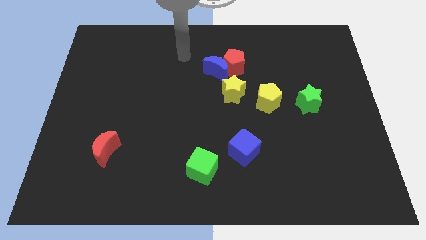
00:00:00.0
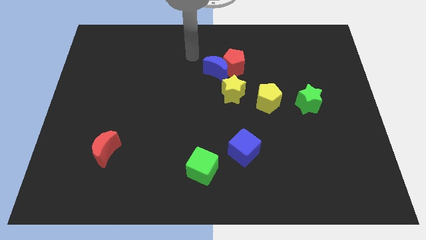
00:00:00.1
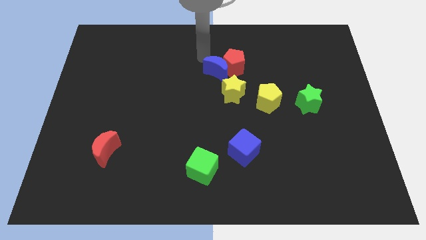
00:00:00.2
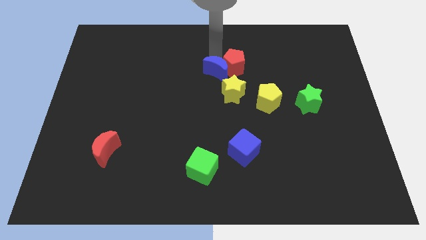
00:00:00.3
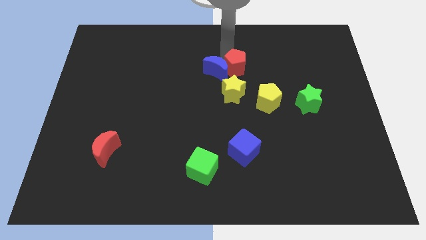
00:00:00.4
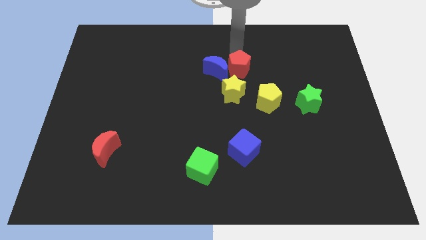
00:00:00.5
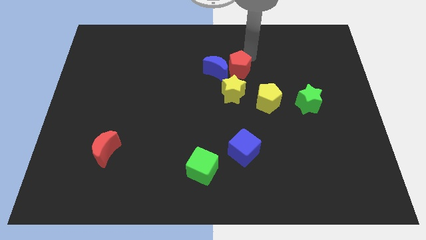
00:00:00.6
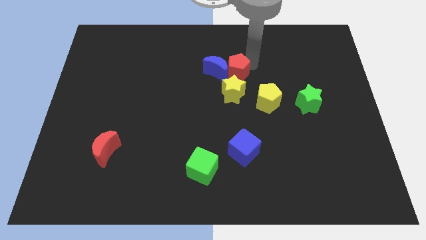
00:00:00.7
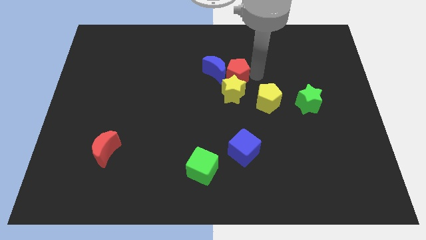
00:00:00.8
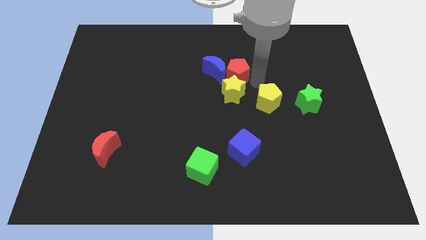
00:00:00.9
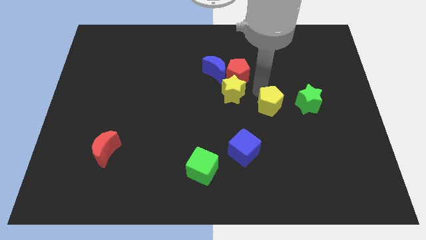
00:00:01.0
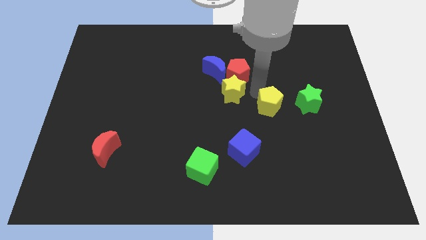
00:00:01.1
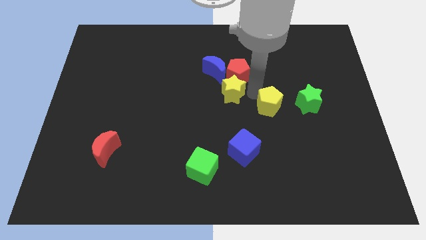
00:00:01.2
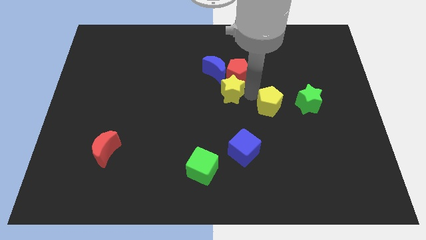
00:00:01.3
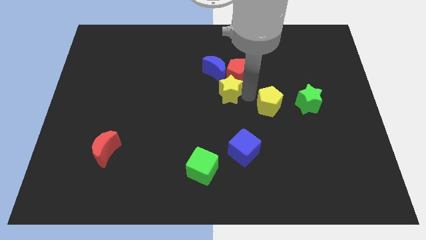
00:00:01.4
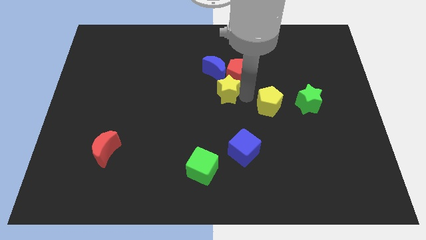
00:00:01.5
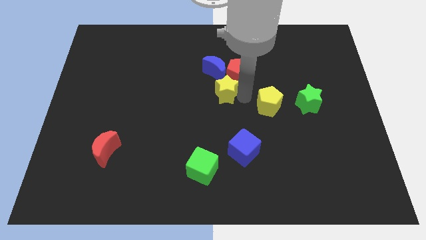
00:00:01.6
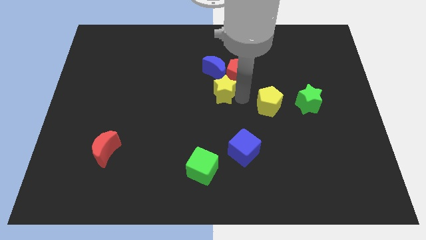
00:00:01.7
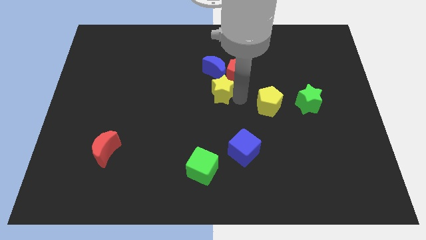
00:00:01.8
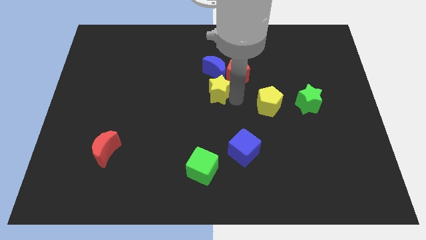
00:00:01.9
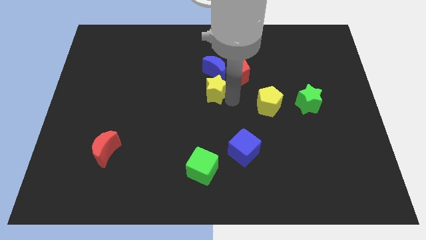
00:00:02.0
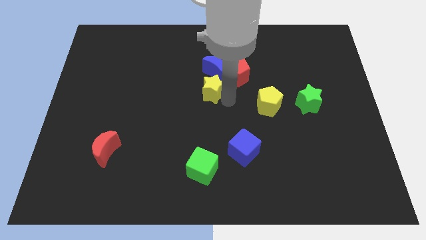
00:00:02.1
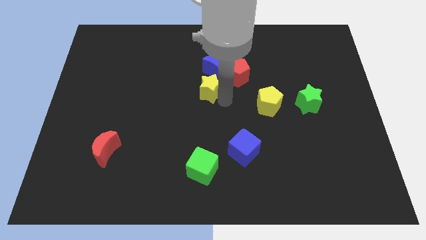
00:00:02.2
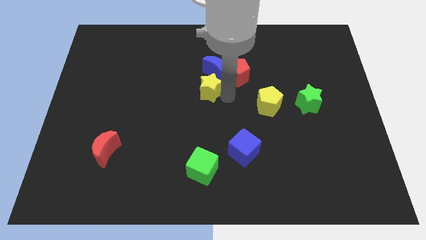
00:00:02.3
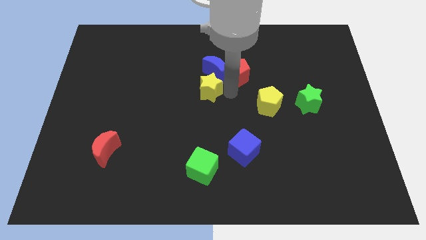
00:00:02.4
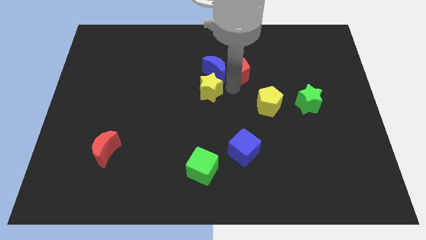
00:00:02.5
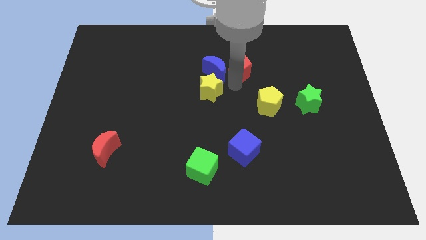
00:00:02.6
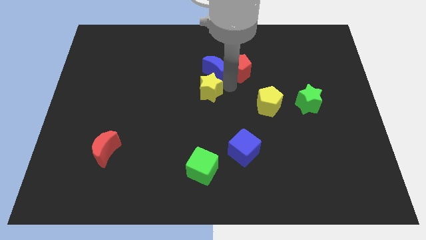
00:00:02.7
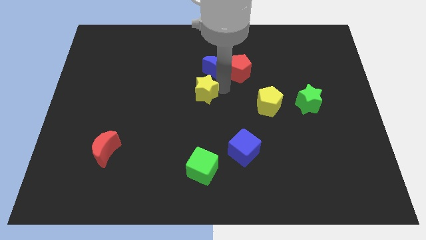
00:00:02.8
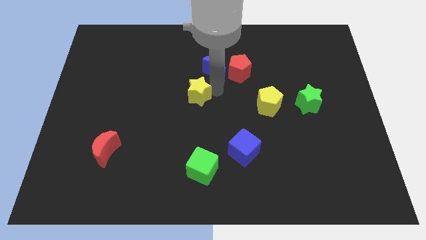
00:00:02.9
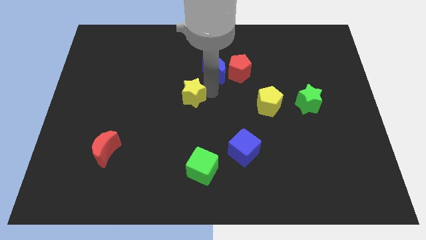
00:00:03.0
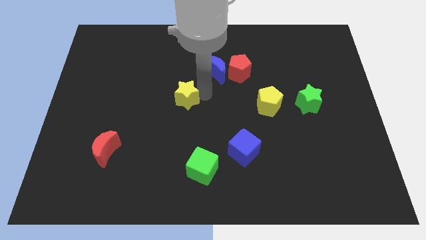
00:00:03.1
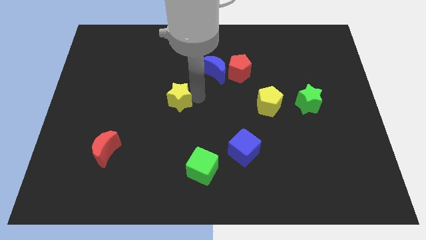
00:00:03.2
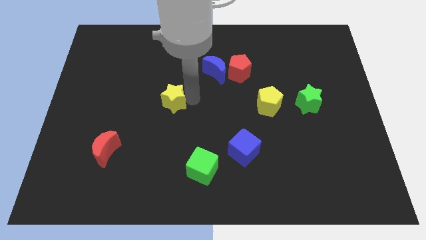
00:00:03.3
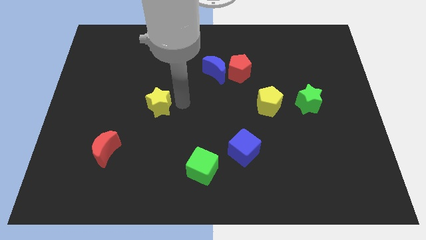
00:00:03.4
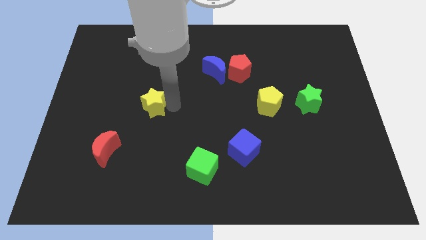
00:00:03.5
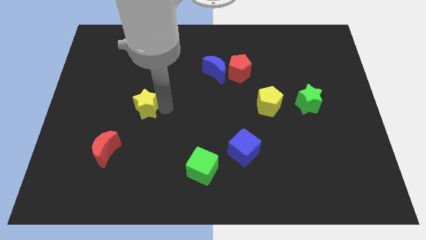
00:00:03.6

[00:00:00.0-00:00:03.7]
move the yellow star to the left

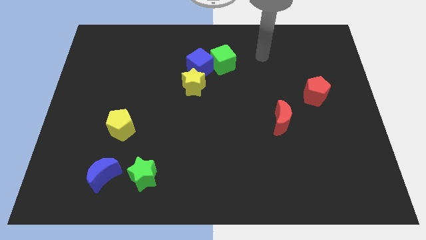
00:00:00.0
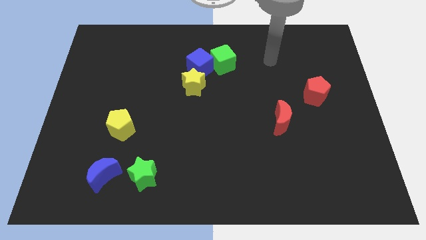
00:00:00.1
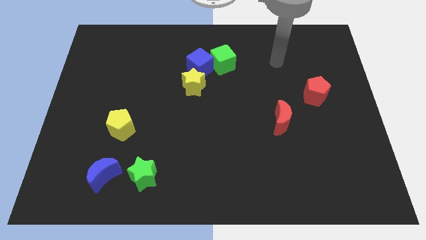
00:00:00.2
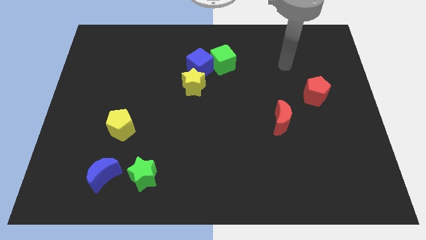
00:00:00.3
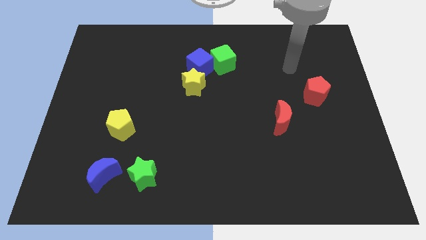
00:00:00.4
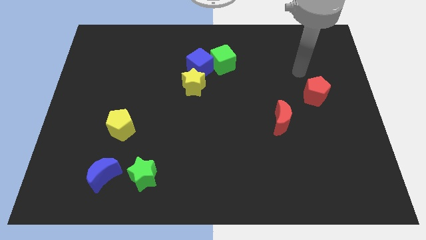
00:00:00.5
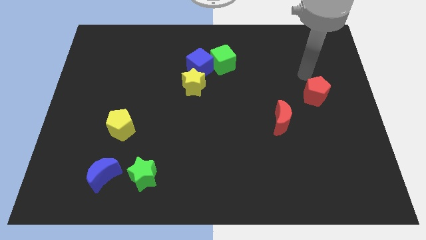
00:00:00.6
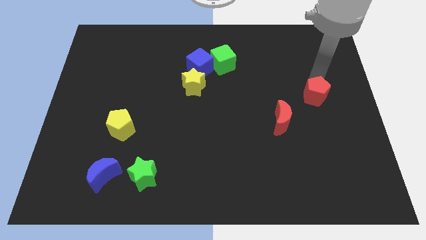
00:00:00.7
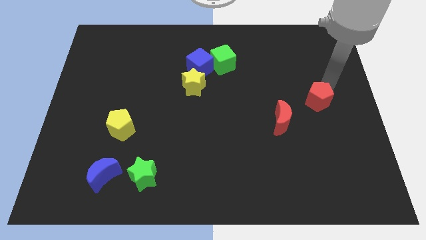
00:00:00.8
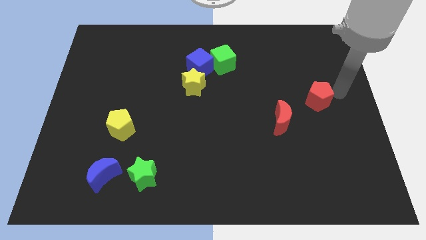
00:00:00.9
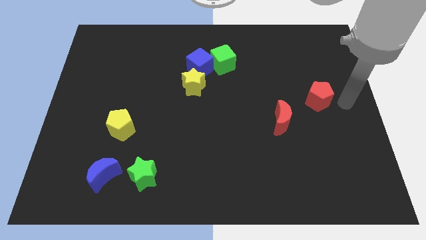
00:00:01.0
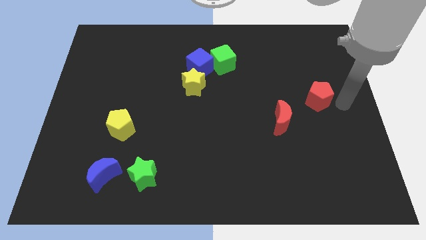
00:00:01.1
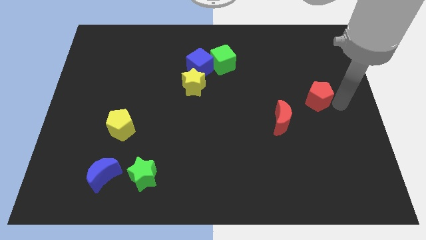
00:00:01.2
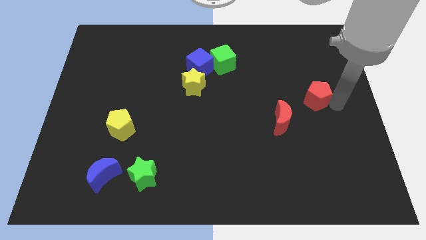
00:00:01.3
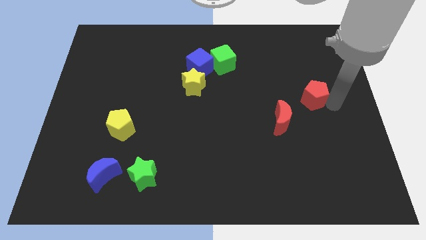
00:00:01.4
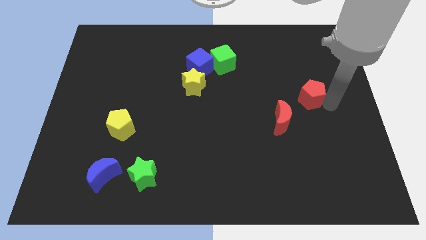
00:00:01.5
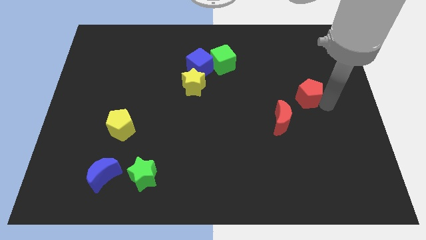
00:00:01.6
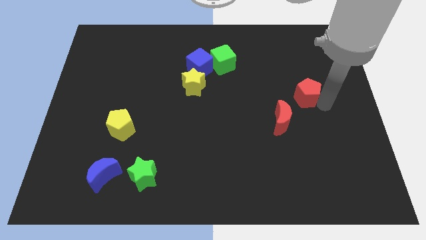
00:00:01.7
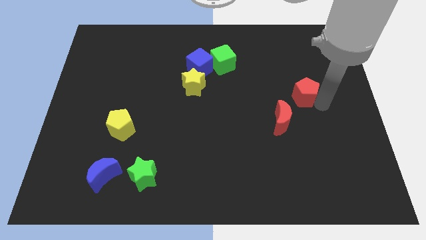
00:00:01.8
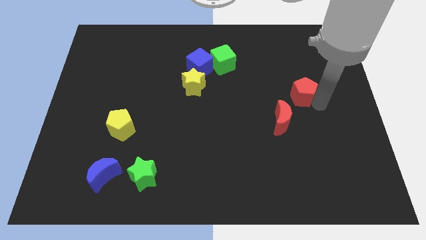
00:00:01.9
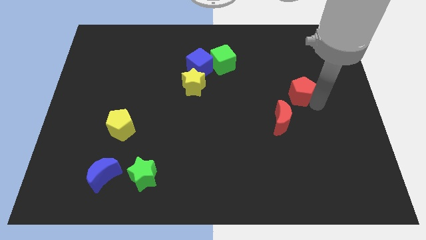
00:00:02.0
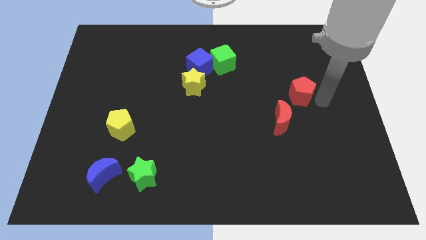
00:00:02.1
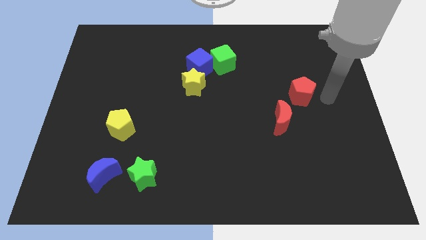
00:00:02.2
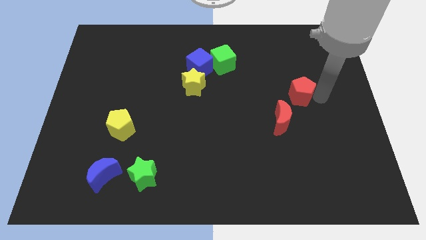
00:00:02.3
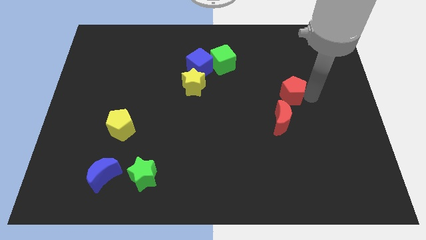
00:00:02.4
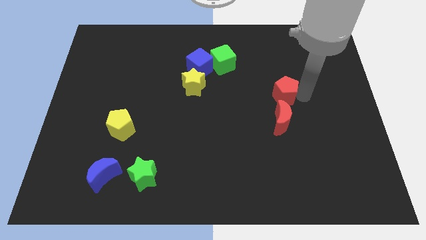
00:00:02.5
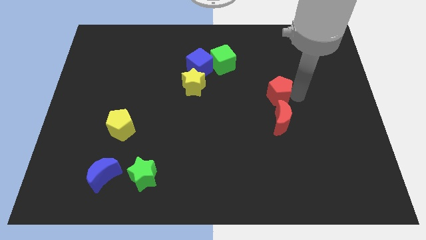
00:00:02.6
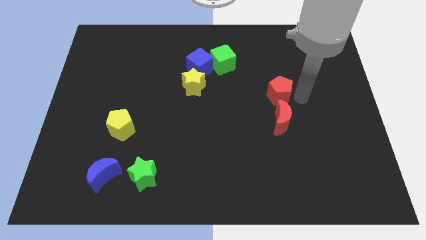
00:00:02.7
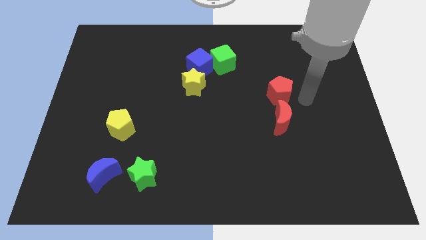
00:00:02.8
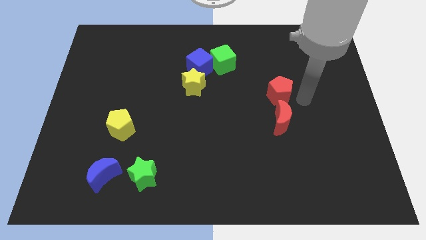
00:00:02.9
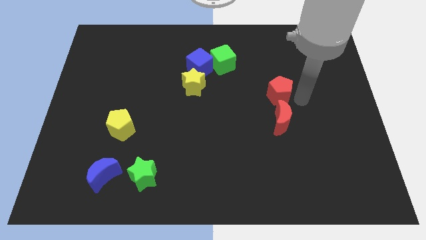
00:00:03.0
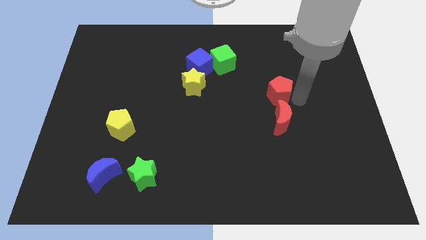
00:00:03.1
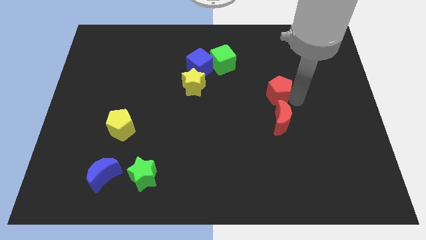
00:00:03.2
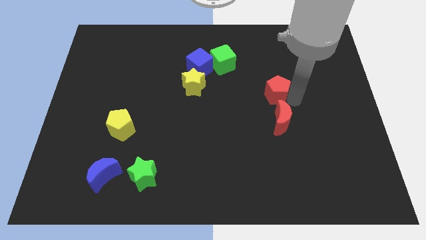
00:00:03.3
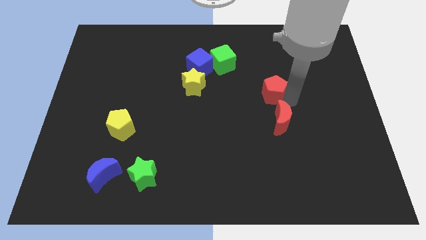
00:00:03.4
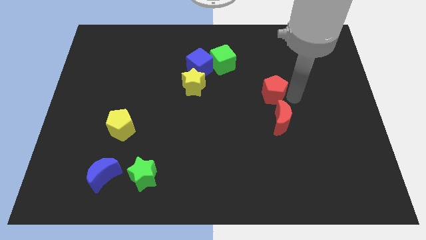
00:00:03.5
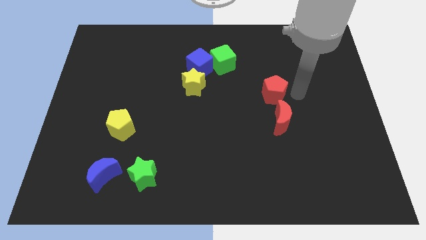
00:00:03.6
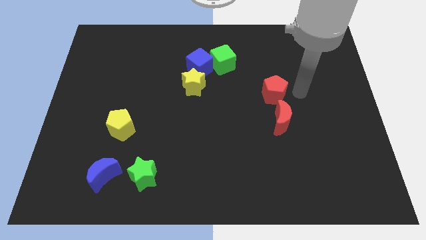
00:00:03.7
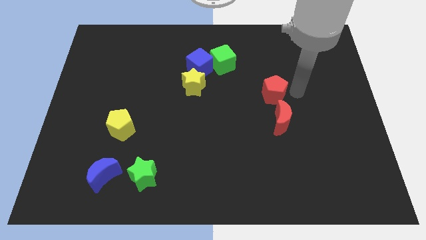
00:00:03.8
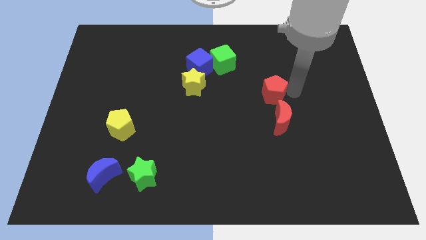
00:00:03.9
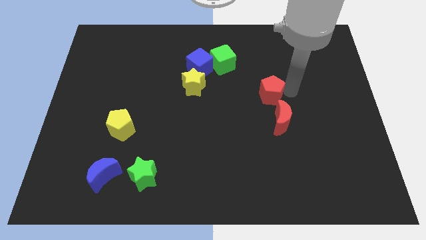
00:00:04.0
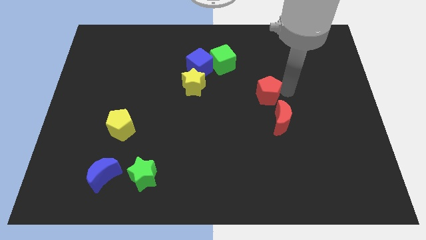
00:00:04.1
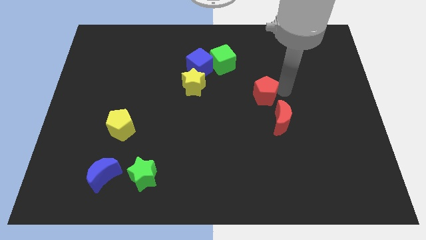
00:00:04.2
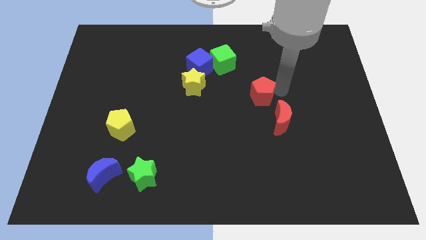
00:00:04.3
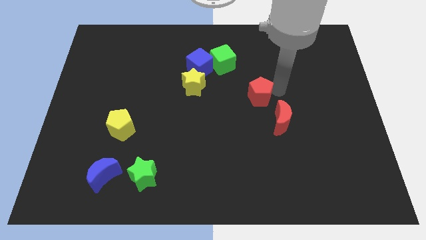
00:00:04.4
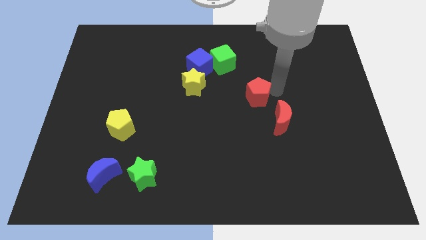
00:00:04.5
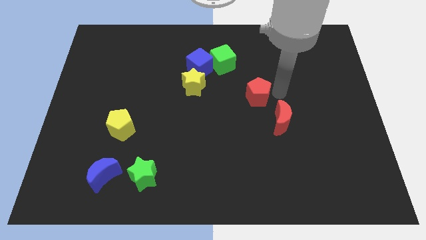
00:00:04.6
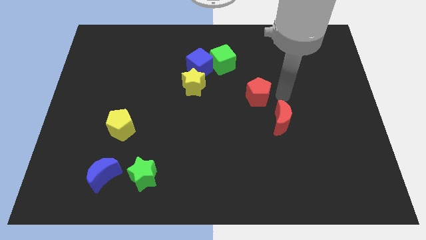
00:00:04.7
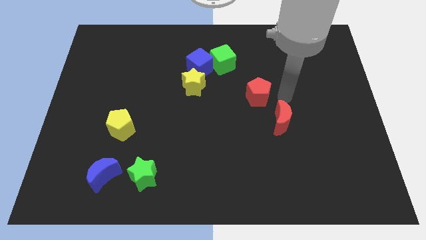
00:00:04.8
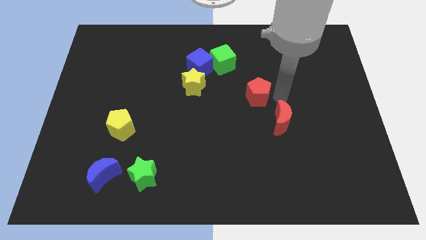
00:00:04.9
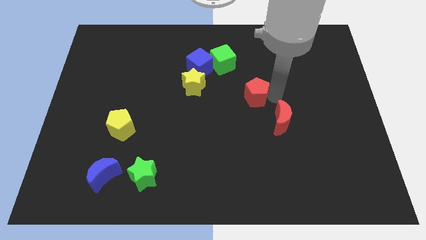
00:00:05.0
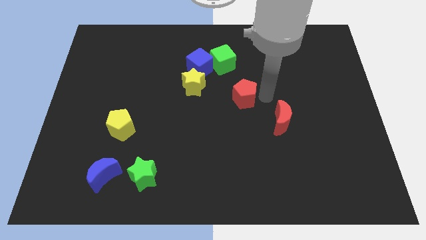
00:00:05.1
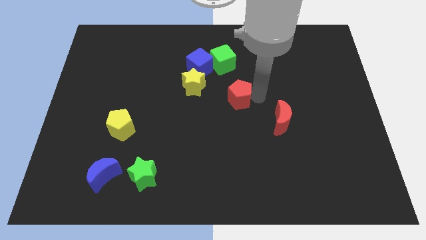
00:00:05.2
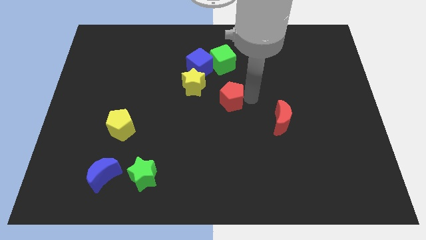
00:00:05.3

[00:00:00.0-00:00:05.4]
slide the red pentagon to the left
